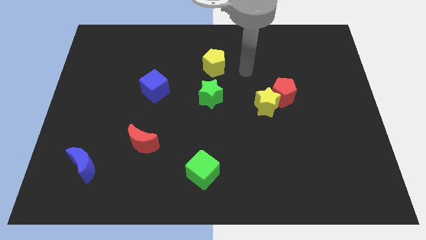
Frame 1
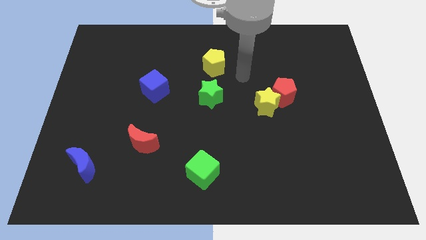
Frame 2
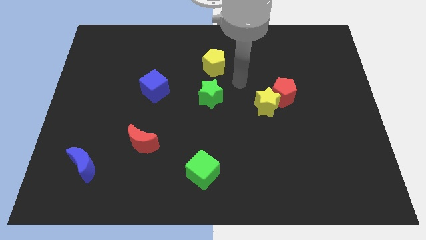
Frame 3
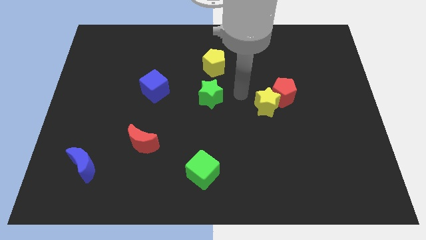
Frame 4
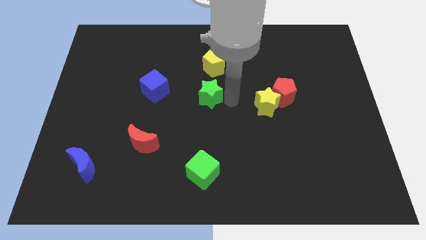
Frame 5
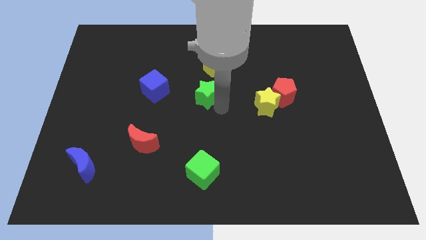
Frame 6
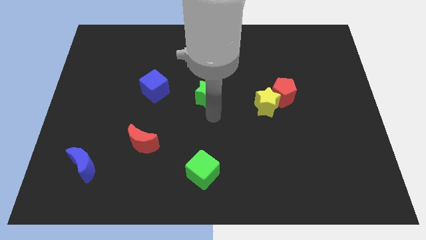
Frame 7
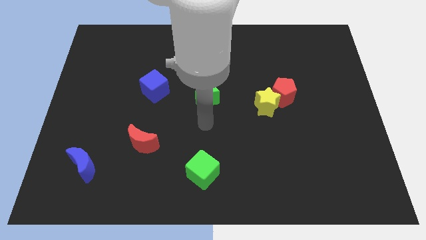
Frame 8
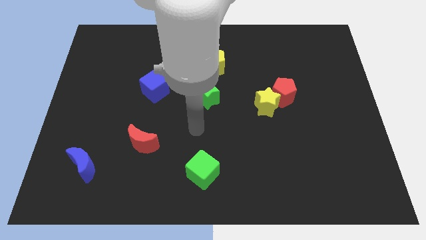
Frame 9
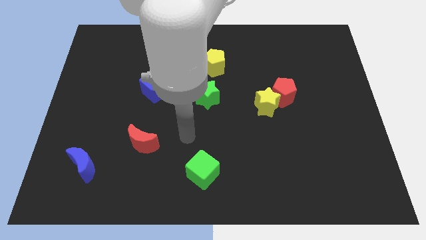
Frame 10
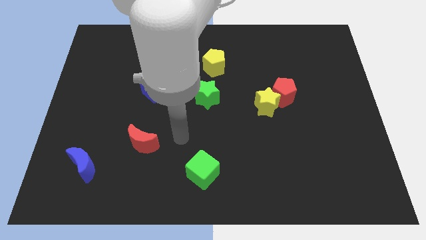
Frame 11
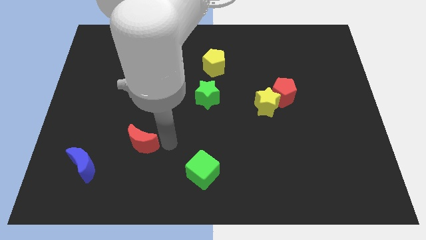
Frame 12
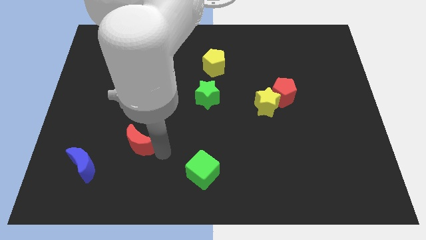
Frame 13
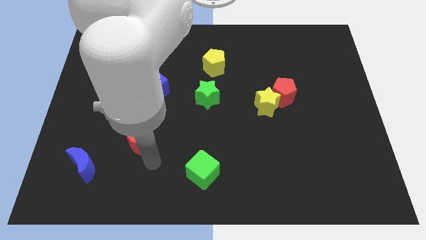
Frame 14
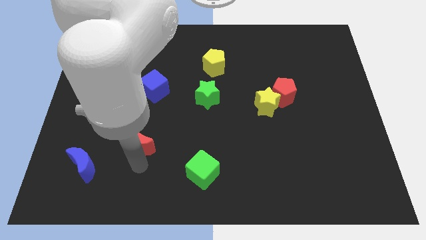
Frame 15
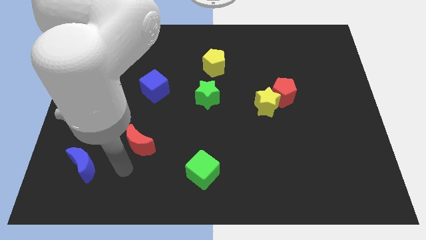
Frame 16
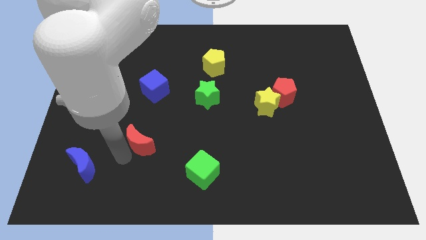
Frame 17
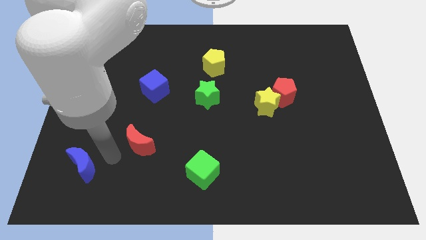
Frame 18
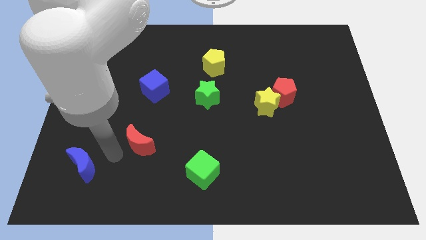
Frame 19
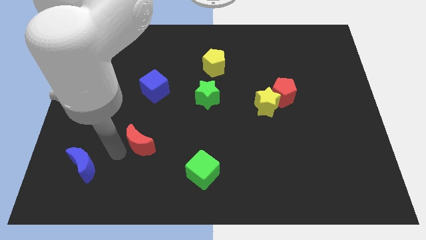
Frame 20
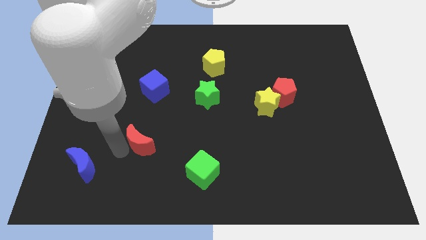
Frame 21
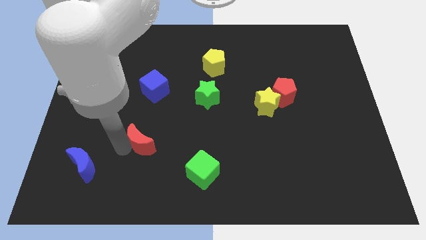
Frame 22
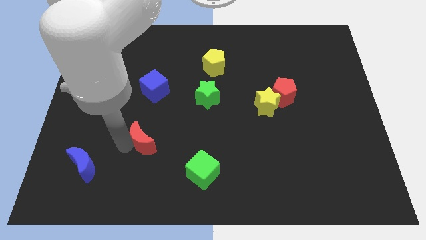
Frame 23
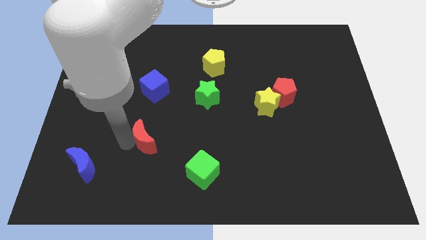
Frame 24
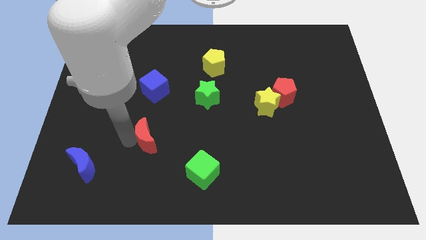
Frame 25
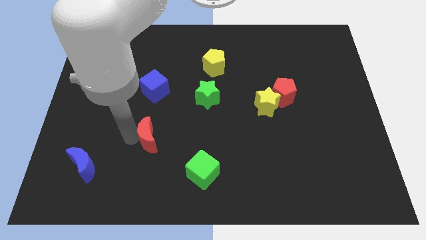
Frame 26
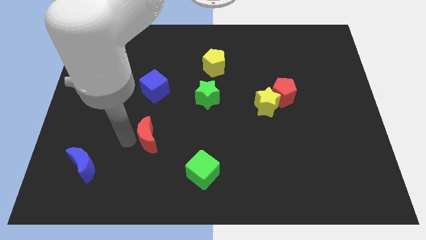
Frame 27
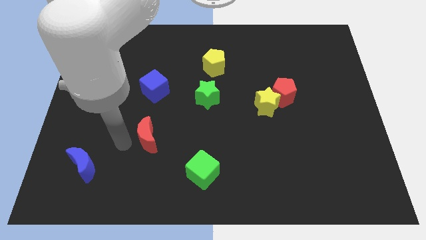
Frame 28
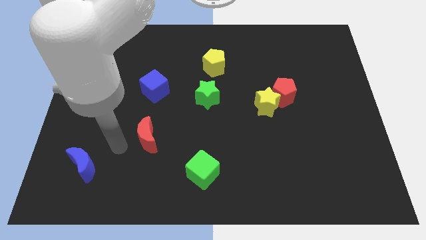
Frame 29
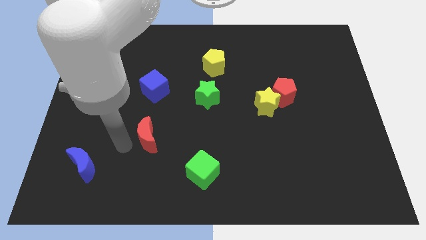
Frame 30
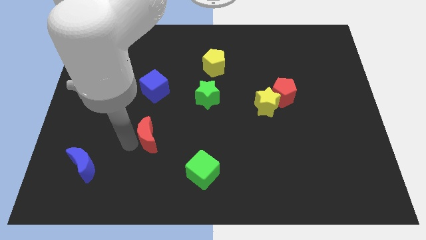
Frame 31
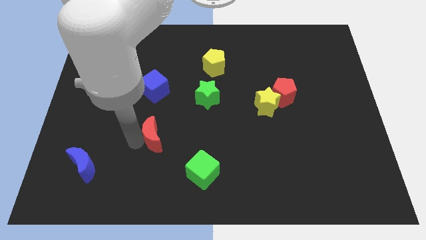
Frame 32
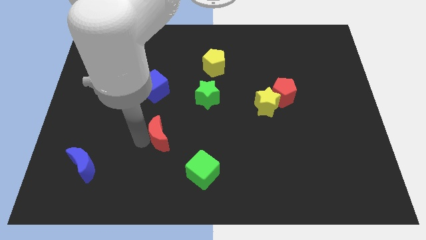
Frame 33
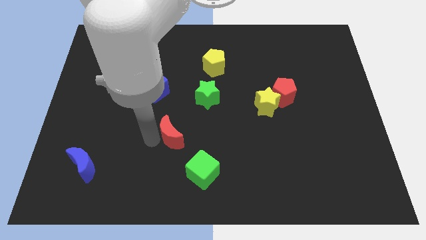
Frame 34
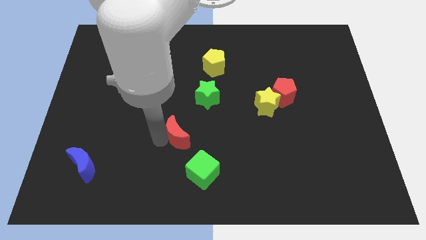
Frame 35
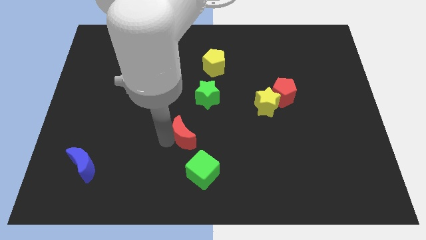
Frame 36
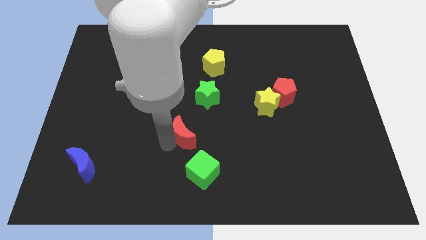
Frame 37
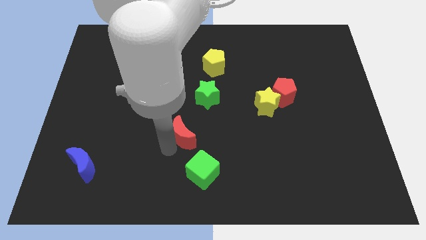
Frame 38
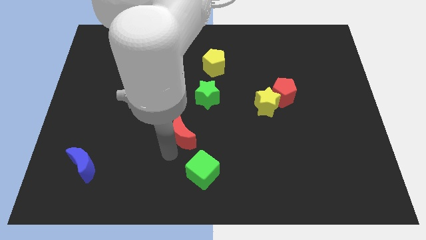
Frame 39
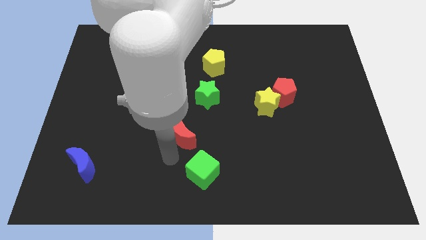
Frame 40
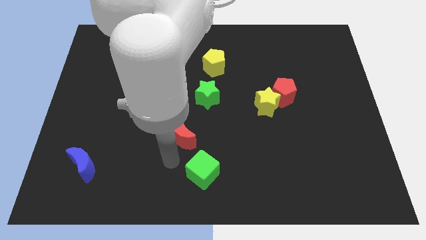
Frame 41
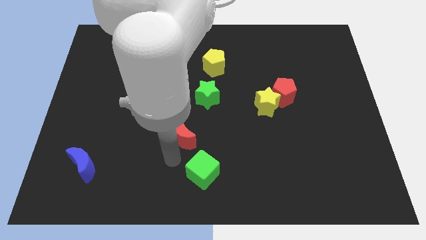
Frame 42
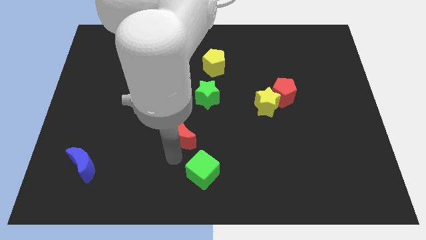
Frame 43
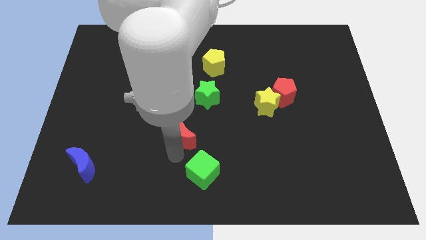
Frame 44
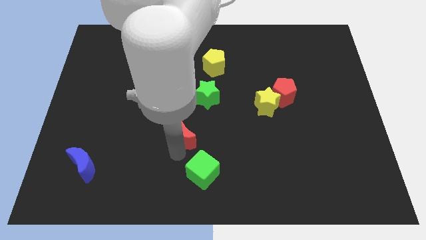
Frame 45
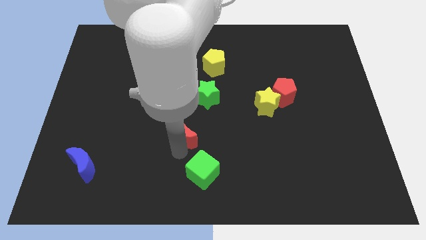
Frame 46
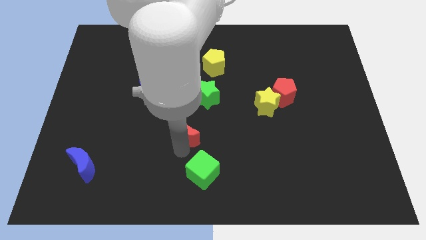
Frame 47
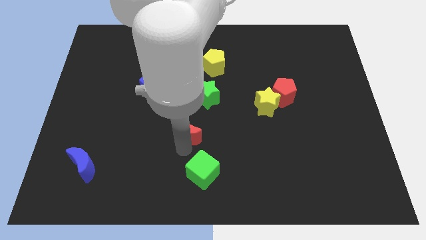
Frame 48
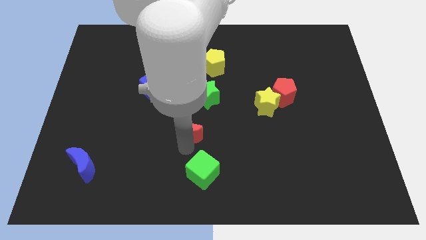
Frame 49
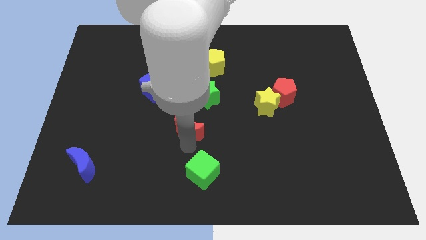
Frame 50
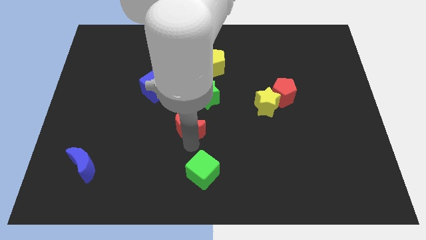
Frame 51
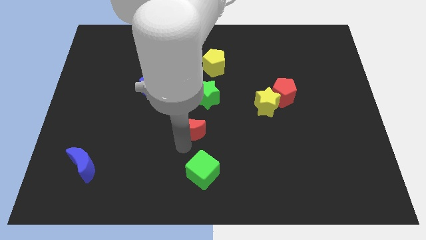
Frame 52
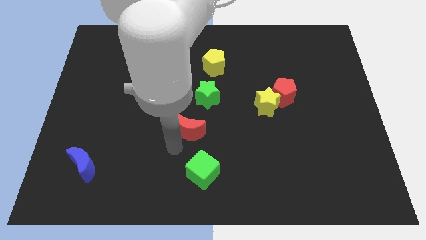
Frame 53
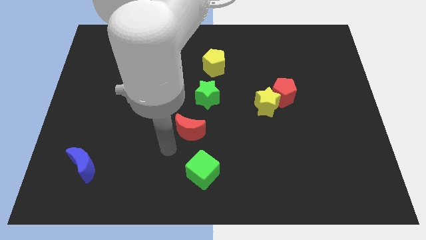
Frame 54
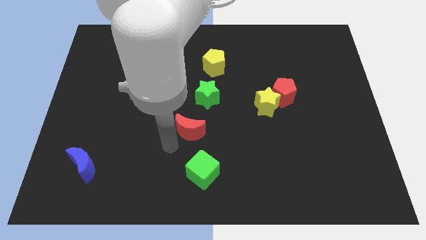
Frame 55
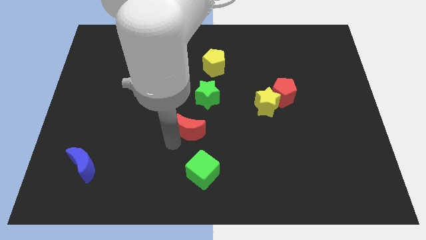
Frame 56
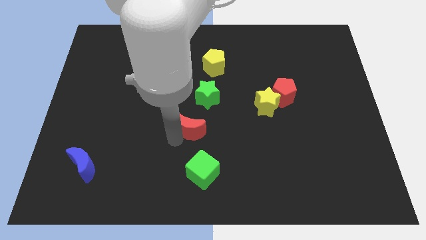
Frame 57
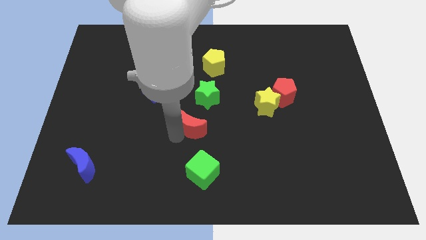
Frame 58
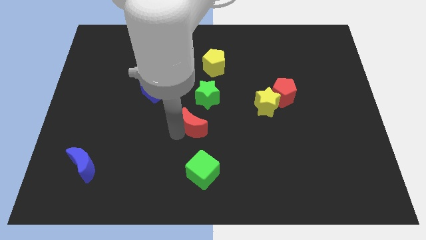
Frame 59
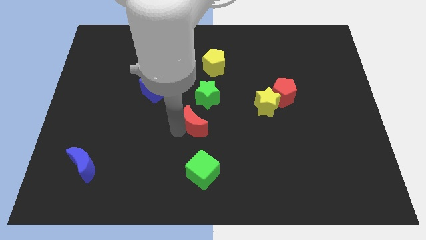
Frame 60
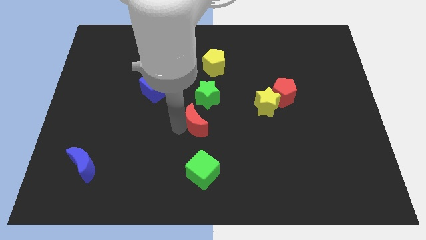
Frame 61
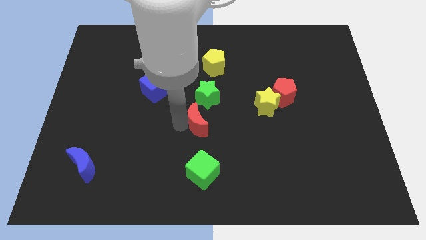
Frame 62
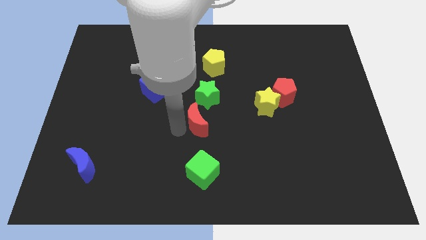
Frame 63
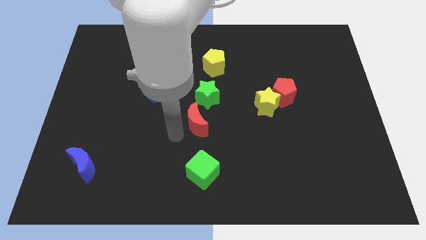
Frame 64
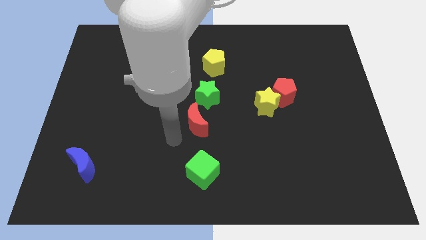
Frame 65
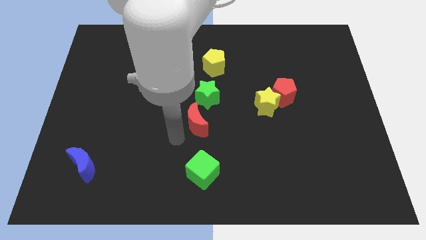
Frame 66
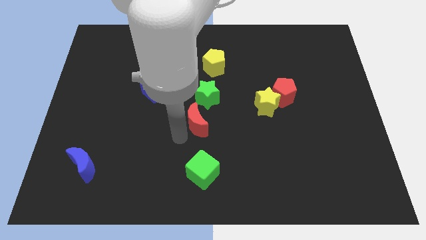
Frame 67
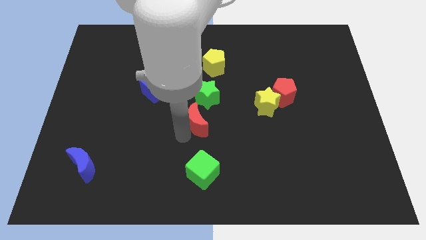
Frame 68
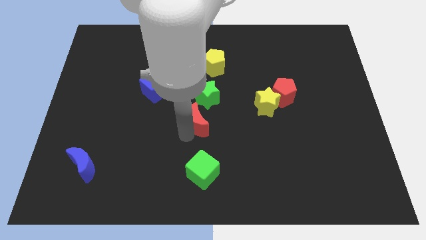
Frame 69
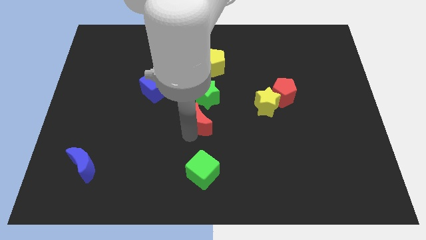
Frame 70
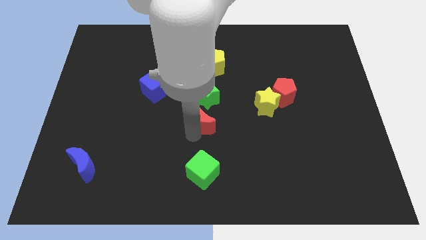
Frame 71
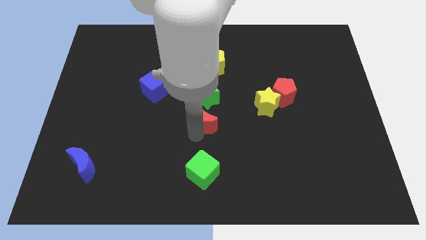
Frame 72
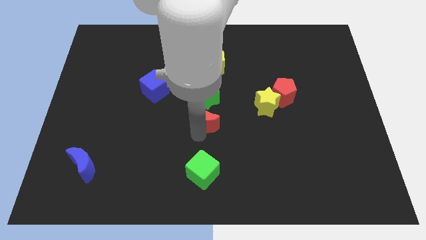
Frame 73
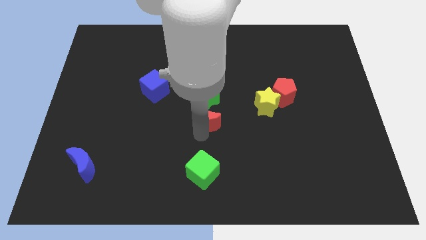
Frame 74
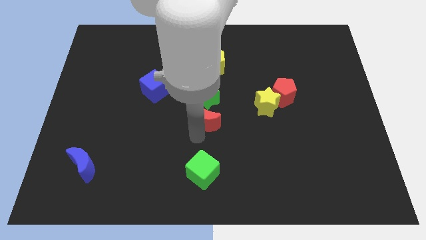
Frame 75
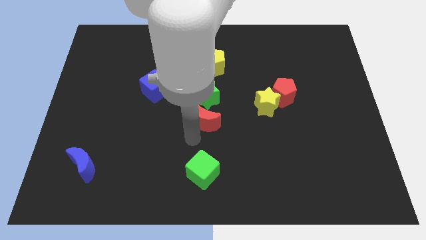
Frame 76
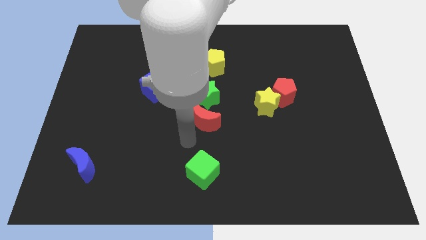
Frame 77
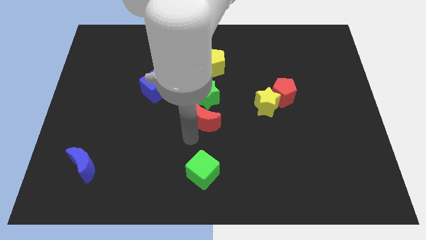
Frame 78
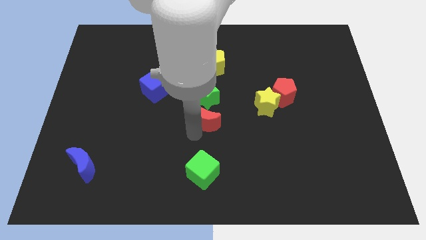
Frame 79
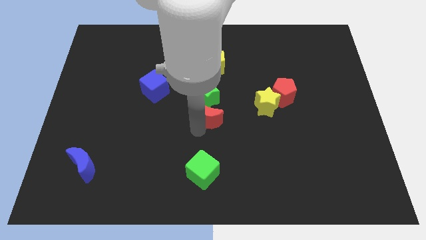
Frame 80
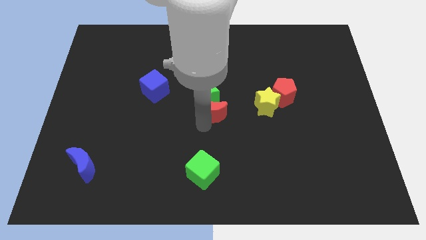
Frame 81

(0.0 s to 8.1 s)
push the red moon to the bottom side of the yellow pentagon

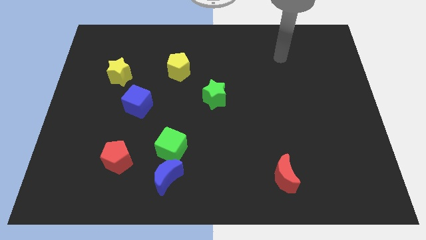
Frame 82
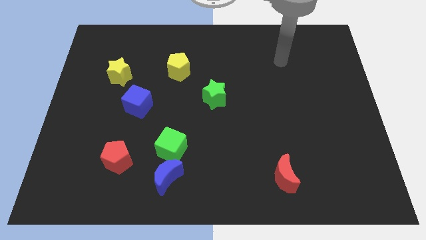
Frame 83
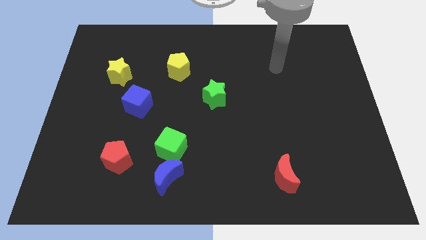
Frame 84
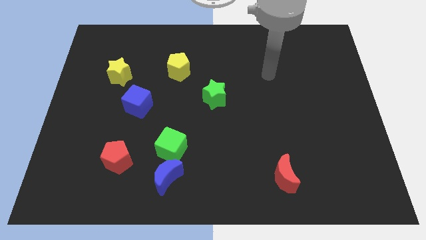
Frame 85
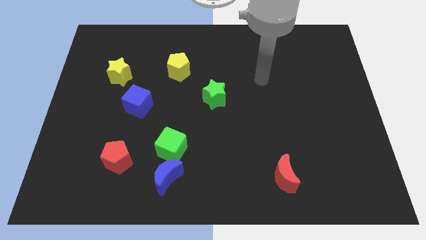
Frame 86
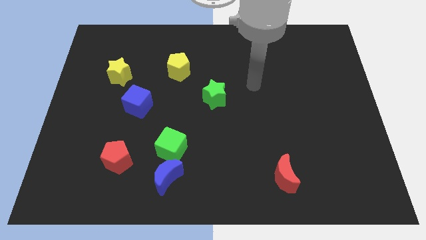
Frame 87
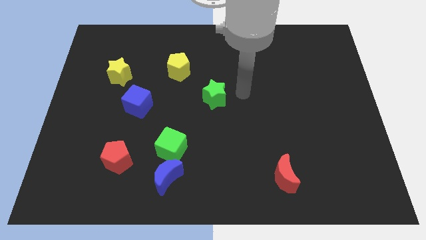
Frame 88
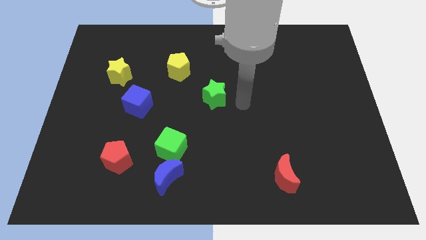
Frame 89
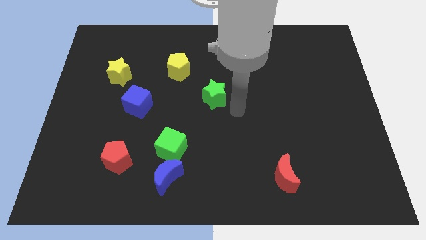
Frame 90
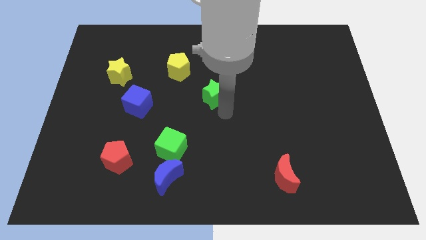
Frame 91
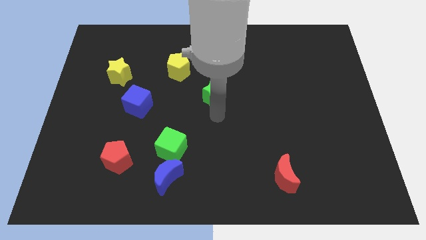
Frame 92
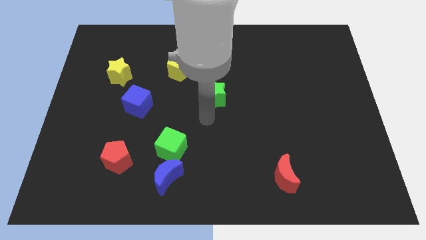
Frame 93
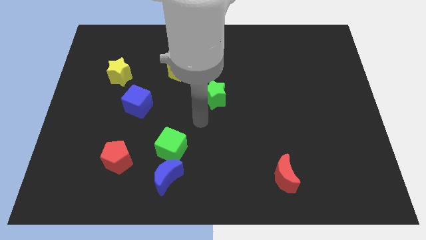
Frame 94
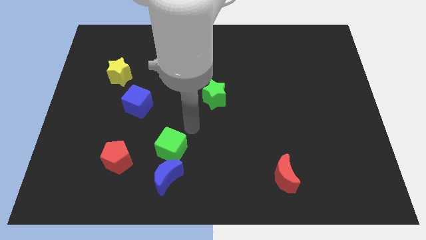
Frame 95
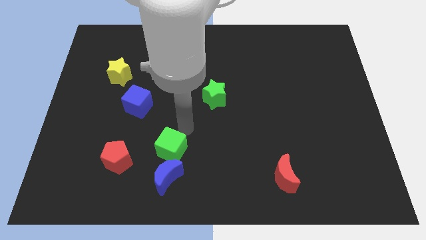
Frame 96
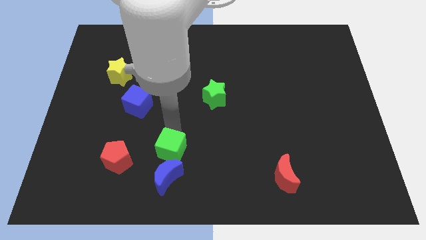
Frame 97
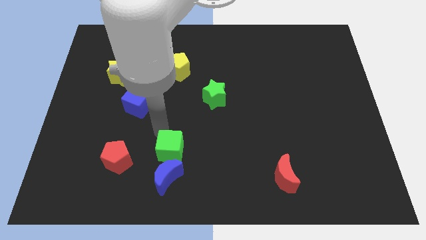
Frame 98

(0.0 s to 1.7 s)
push the blue moon diagonally down and to the right of the green cube
